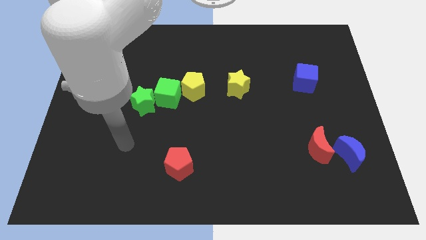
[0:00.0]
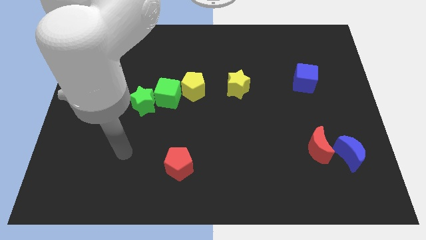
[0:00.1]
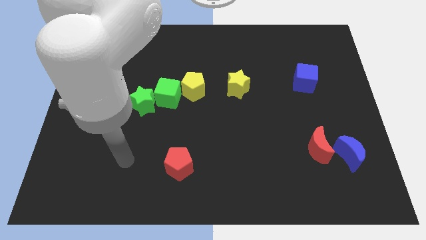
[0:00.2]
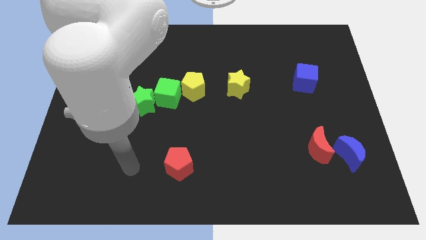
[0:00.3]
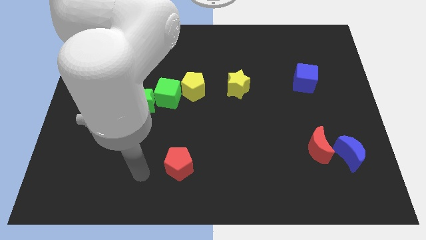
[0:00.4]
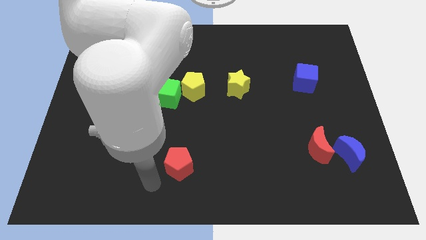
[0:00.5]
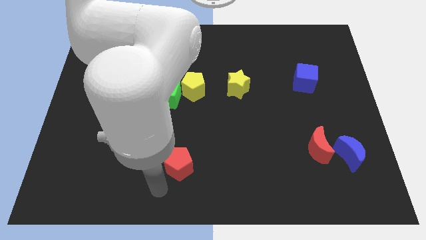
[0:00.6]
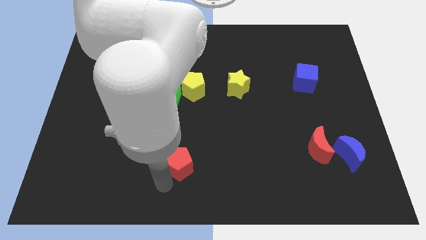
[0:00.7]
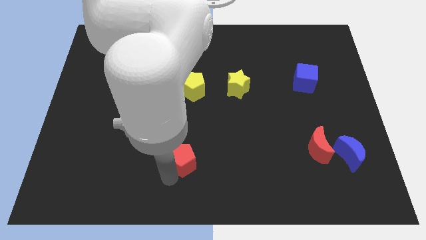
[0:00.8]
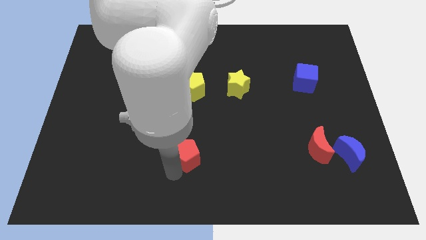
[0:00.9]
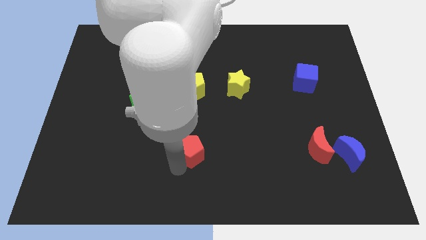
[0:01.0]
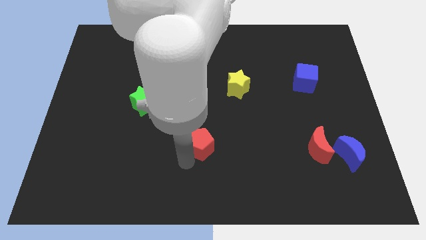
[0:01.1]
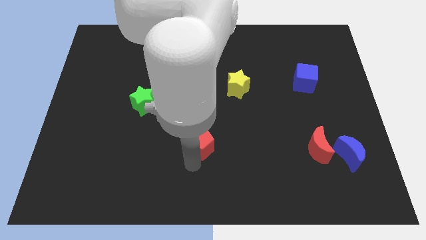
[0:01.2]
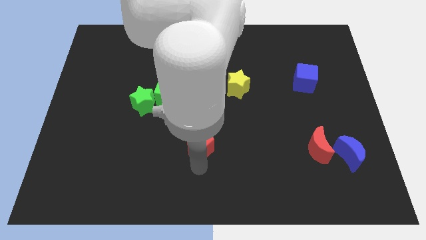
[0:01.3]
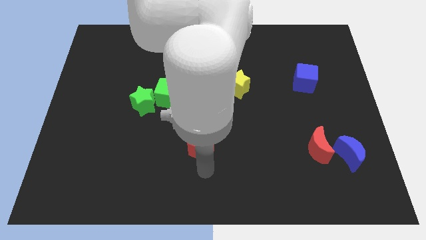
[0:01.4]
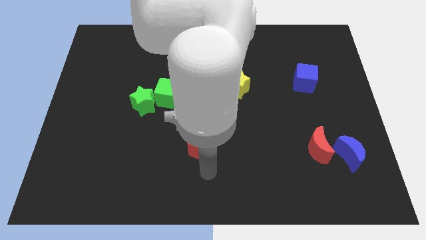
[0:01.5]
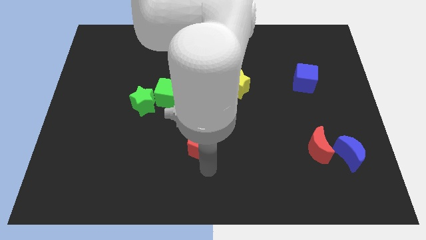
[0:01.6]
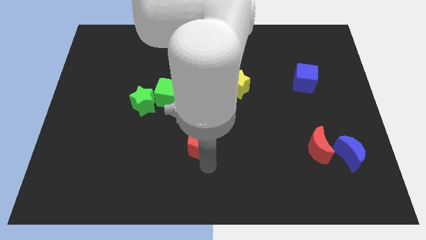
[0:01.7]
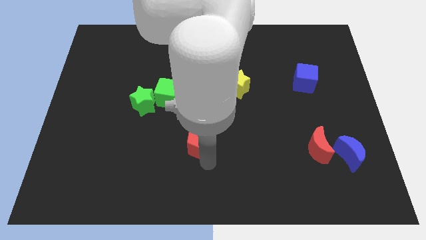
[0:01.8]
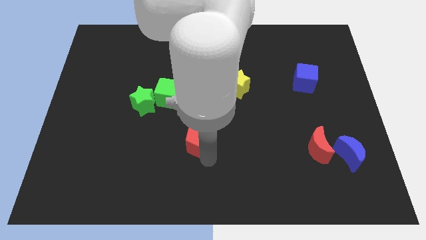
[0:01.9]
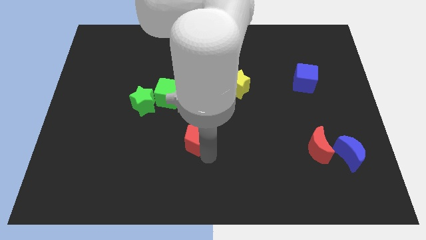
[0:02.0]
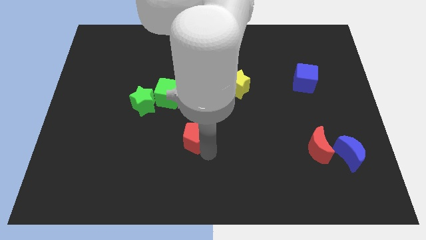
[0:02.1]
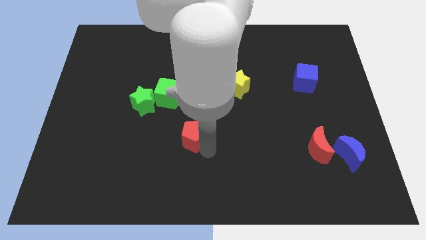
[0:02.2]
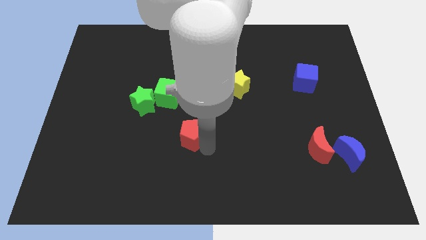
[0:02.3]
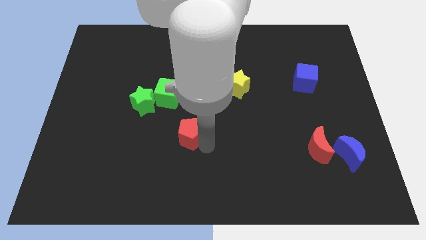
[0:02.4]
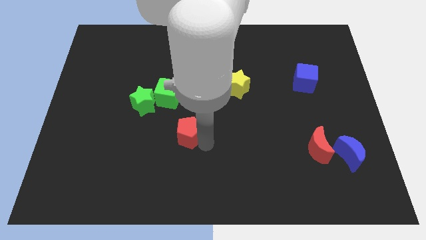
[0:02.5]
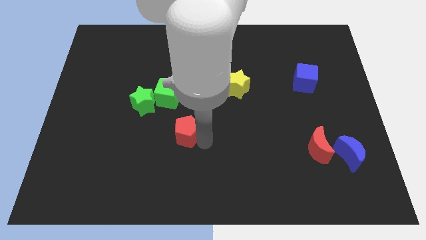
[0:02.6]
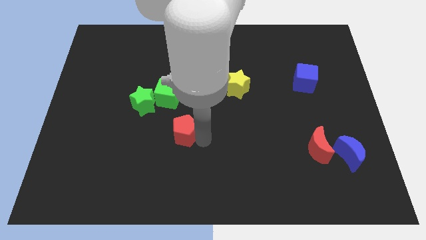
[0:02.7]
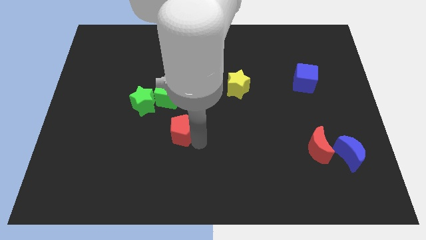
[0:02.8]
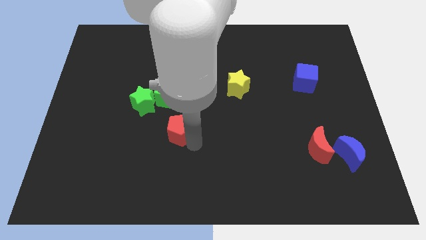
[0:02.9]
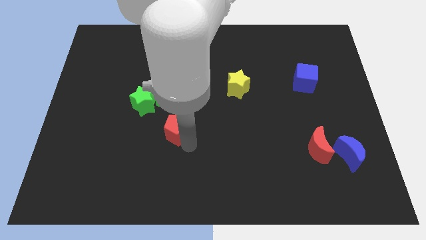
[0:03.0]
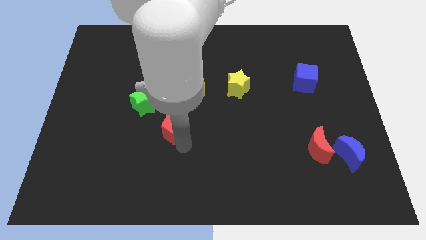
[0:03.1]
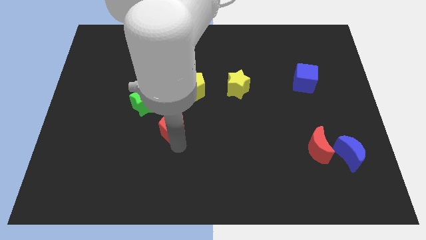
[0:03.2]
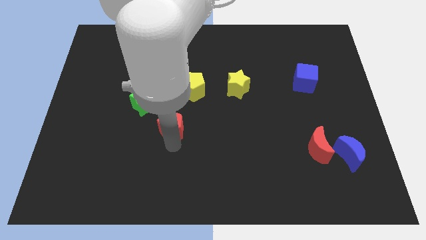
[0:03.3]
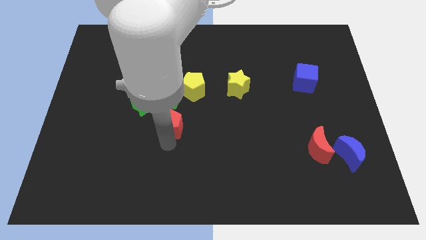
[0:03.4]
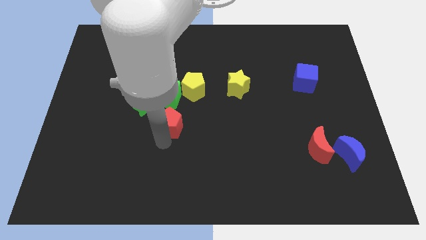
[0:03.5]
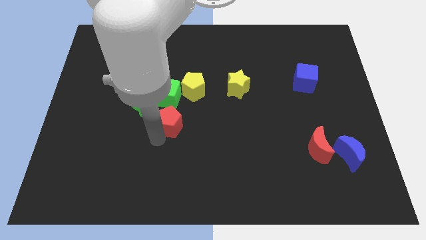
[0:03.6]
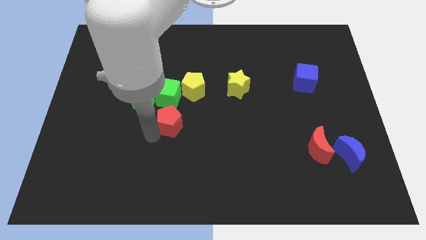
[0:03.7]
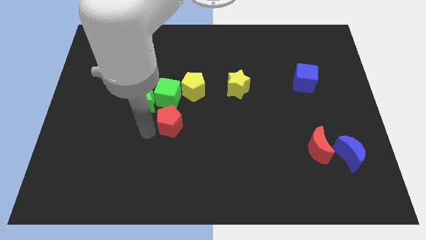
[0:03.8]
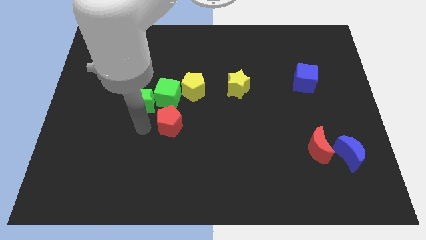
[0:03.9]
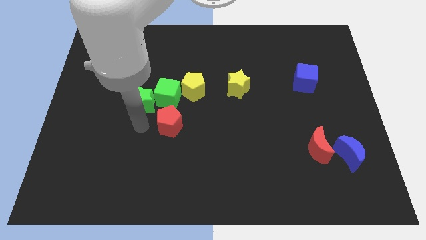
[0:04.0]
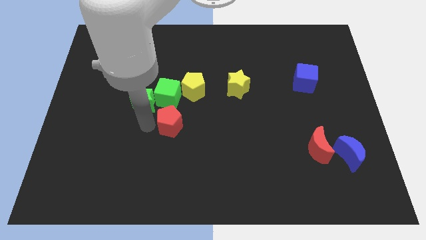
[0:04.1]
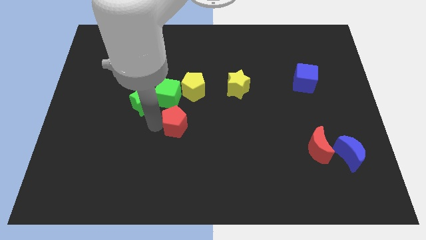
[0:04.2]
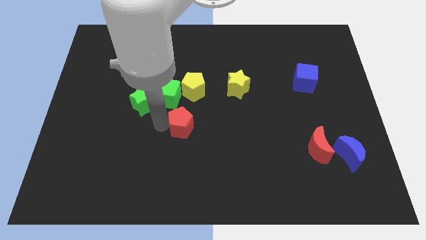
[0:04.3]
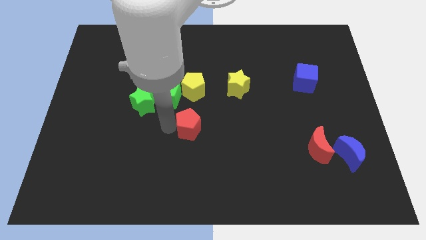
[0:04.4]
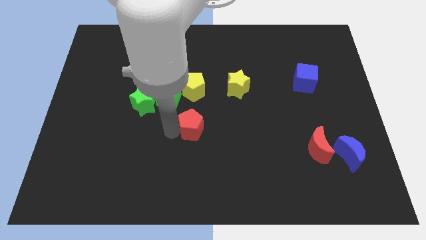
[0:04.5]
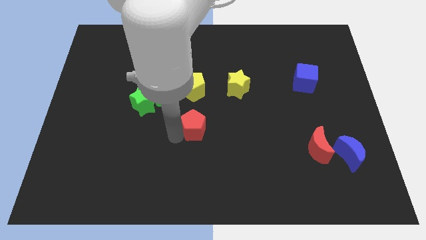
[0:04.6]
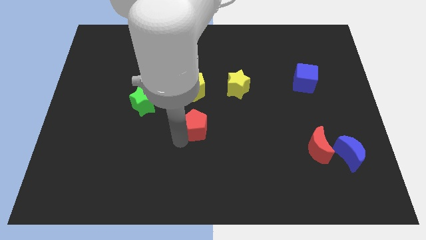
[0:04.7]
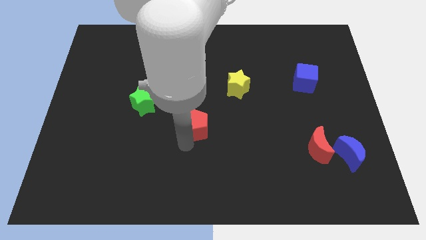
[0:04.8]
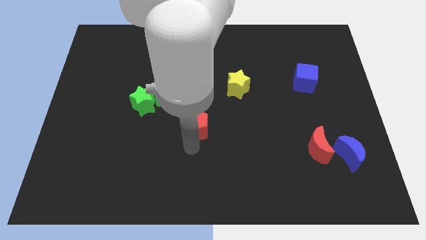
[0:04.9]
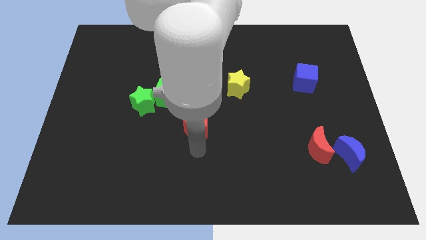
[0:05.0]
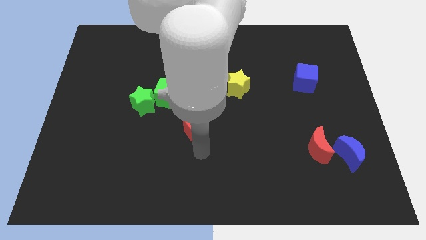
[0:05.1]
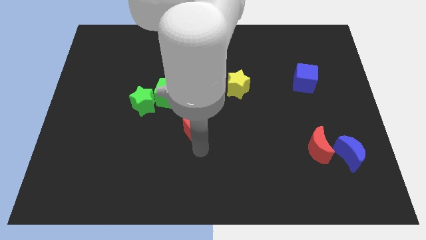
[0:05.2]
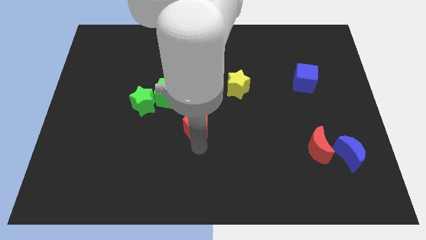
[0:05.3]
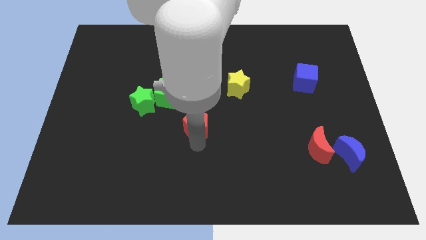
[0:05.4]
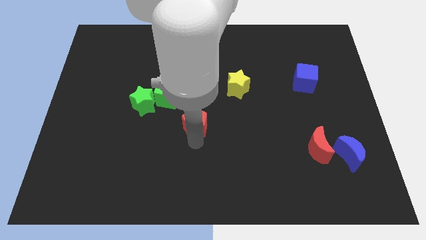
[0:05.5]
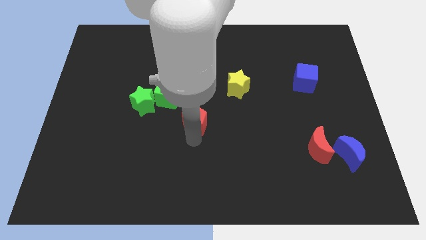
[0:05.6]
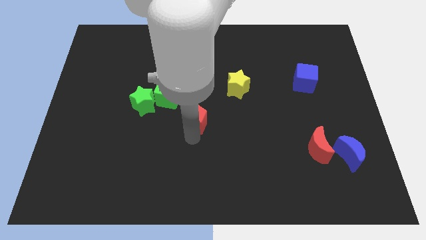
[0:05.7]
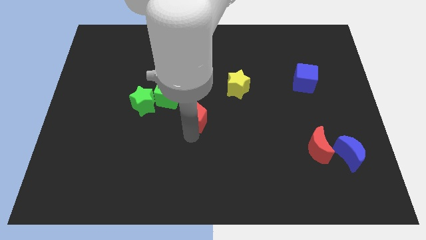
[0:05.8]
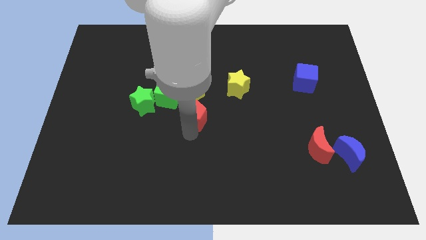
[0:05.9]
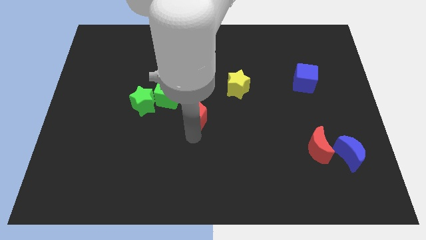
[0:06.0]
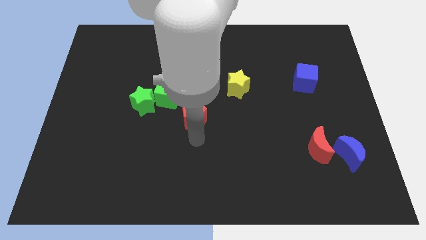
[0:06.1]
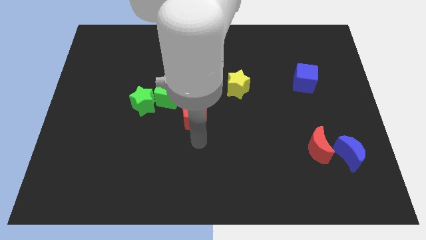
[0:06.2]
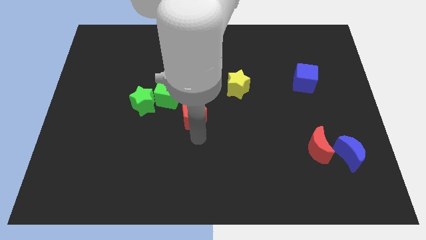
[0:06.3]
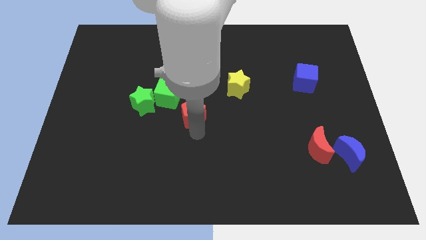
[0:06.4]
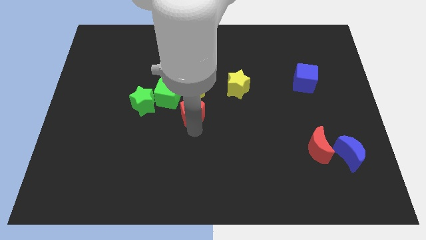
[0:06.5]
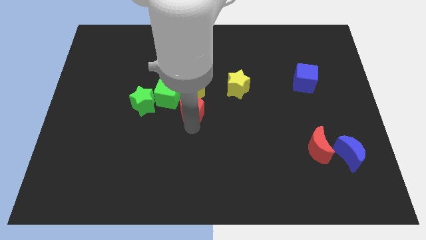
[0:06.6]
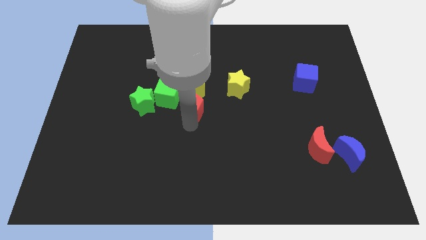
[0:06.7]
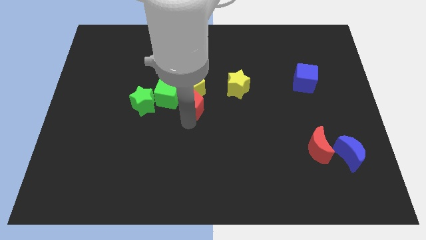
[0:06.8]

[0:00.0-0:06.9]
put the red pentagon towards the yellow pentagon

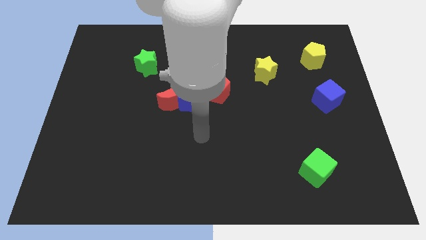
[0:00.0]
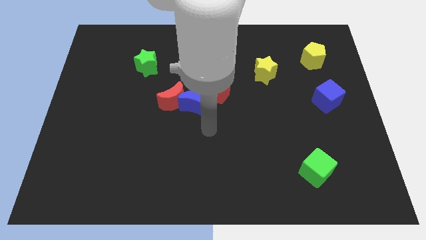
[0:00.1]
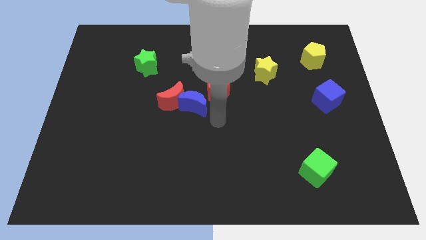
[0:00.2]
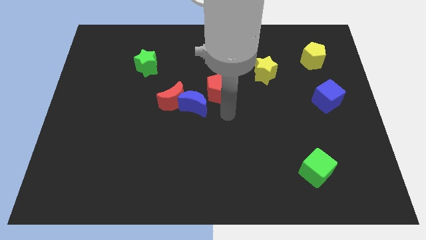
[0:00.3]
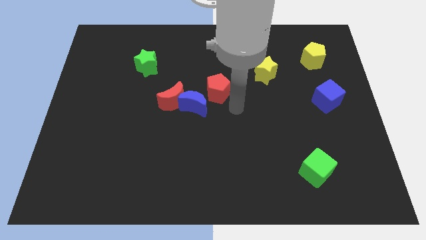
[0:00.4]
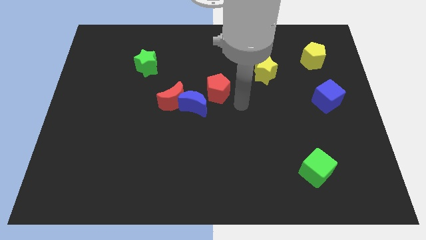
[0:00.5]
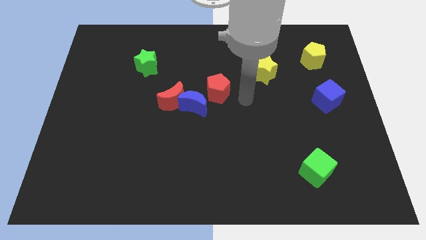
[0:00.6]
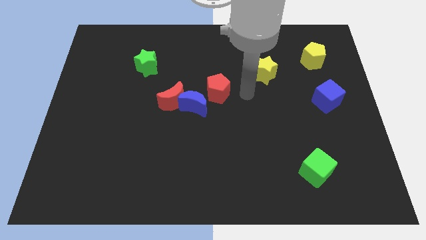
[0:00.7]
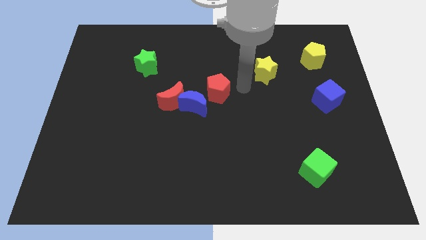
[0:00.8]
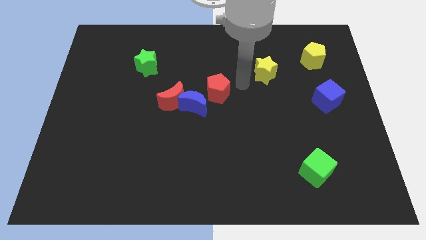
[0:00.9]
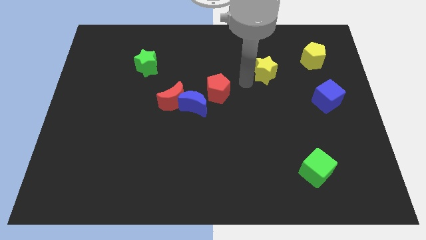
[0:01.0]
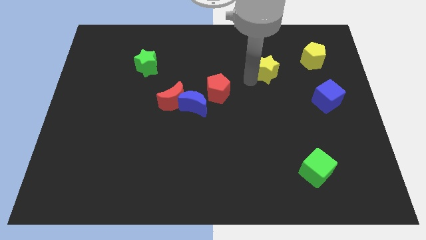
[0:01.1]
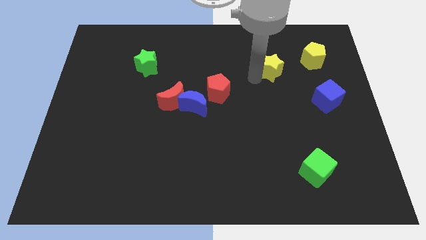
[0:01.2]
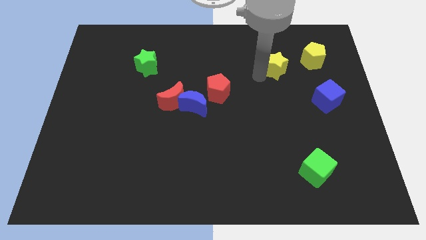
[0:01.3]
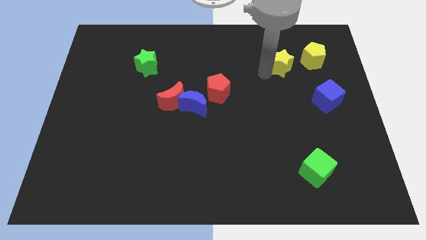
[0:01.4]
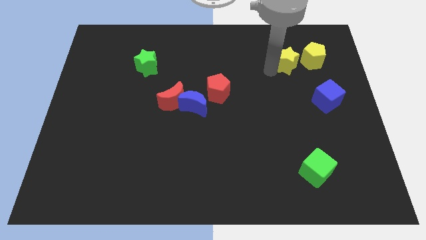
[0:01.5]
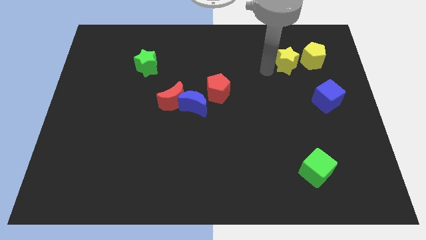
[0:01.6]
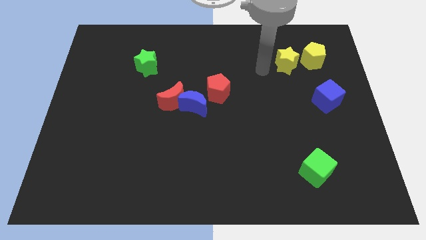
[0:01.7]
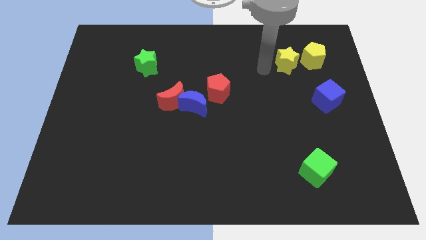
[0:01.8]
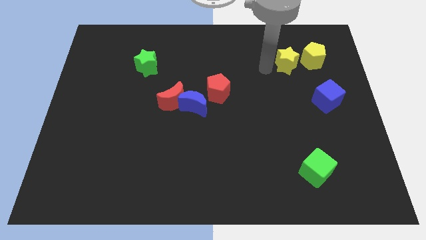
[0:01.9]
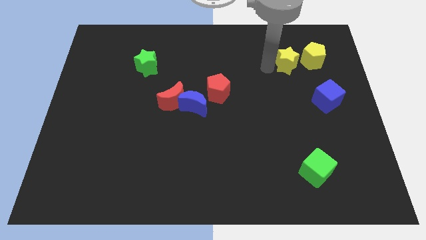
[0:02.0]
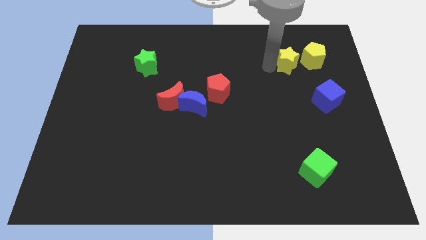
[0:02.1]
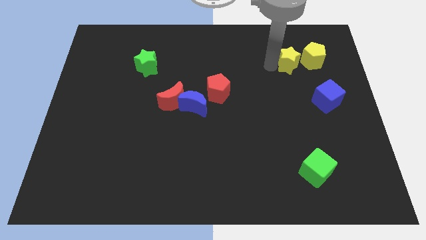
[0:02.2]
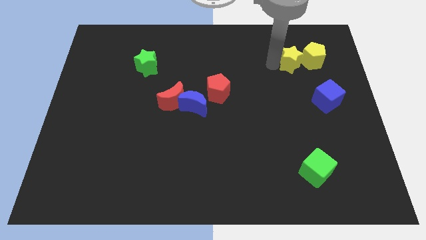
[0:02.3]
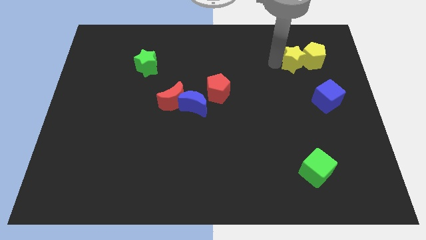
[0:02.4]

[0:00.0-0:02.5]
push the yellow star next to the yellow pentagon
